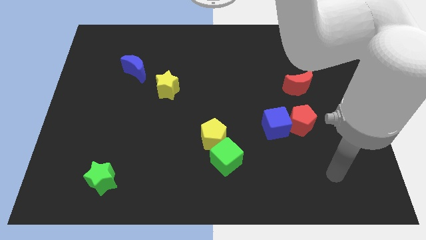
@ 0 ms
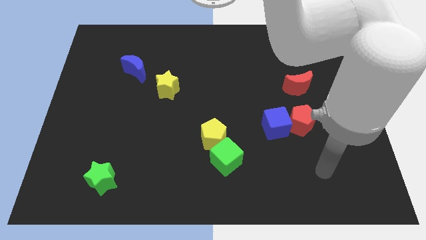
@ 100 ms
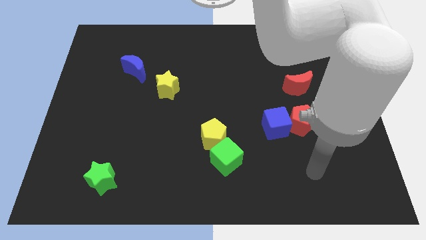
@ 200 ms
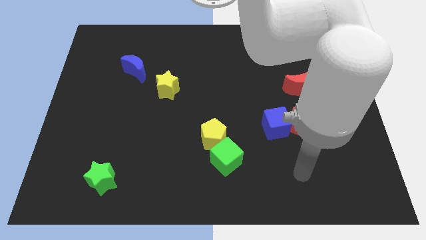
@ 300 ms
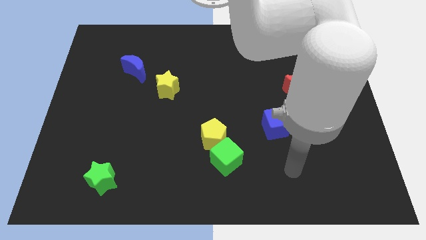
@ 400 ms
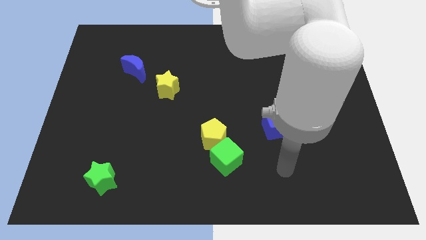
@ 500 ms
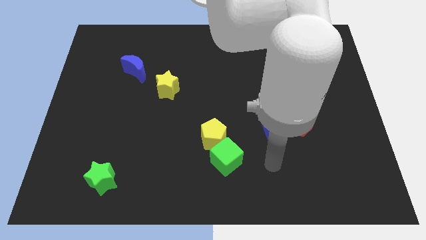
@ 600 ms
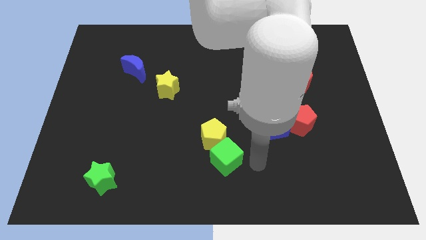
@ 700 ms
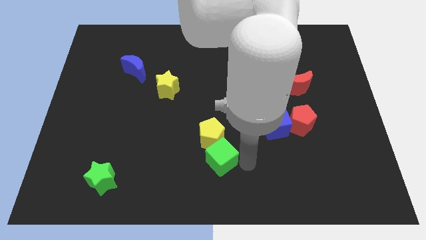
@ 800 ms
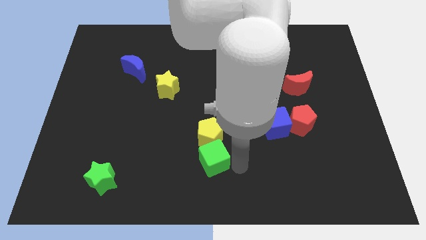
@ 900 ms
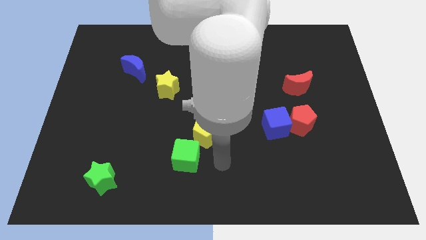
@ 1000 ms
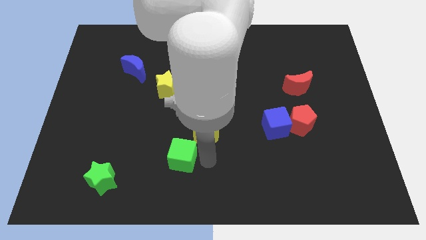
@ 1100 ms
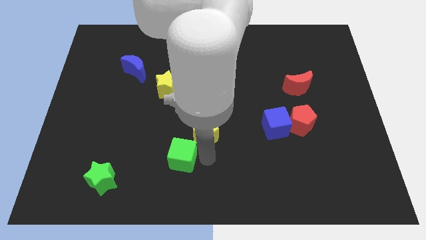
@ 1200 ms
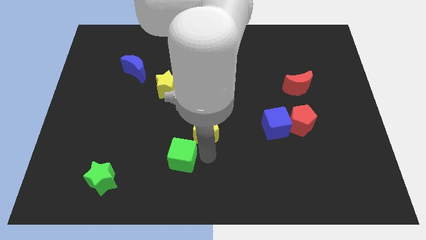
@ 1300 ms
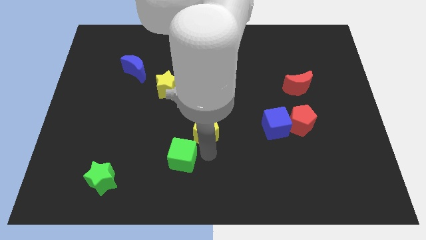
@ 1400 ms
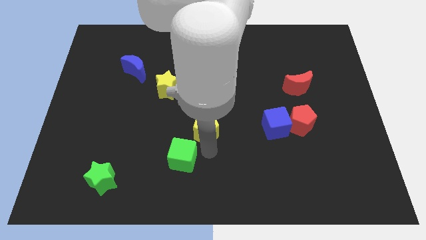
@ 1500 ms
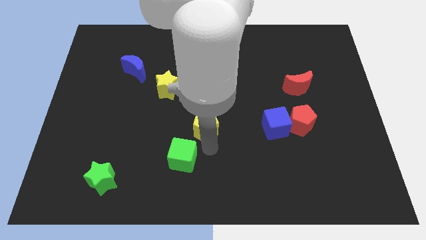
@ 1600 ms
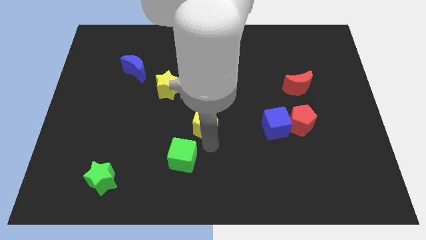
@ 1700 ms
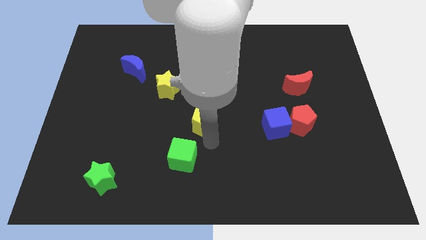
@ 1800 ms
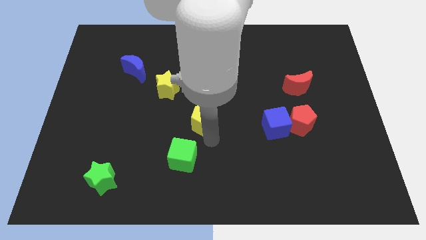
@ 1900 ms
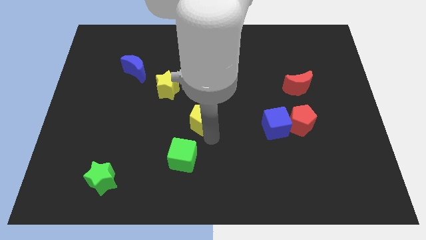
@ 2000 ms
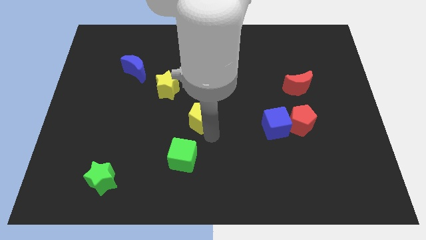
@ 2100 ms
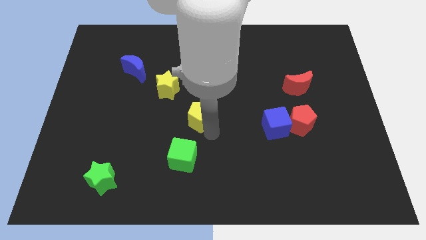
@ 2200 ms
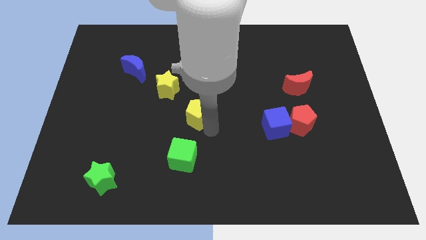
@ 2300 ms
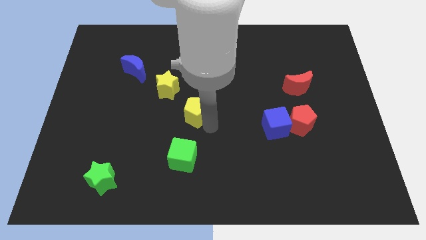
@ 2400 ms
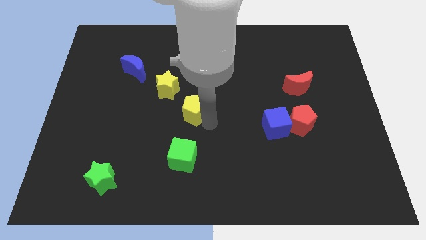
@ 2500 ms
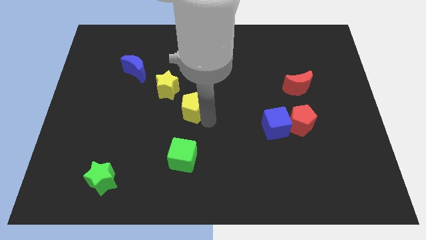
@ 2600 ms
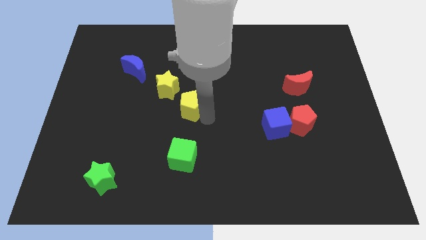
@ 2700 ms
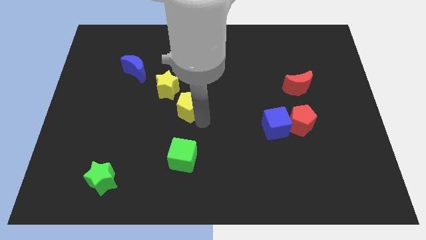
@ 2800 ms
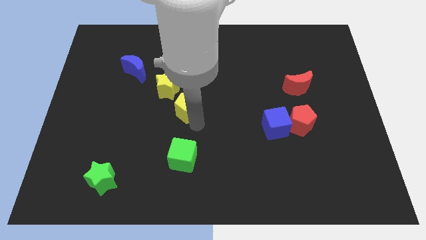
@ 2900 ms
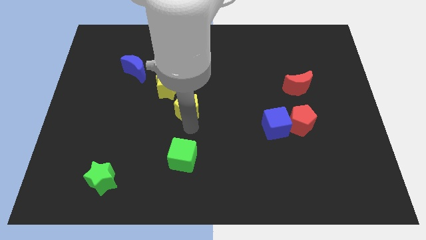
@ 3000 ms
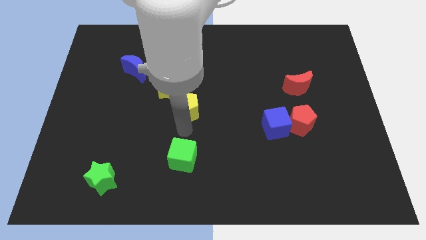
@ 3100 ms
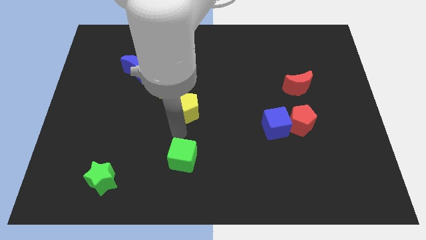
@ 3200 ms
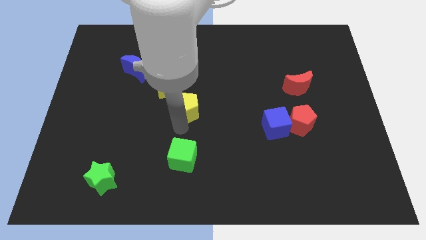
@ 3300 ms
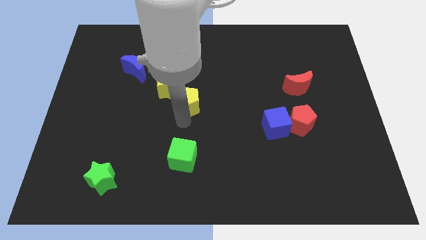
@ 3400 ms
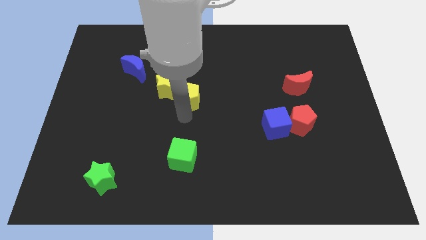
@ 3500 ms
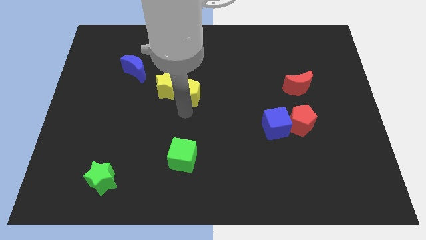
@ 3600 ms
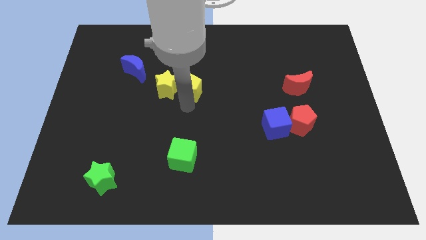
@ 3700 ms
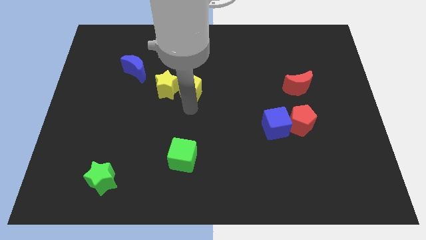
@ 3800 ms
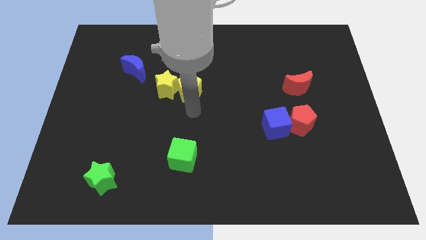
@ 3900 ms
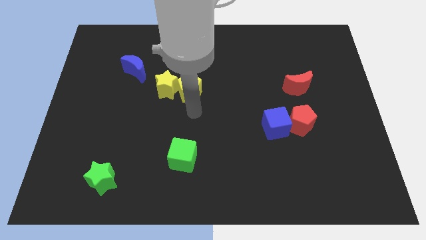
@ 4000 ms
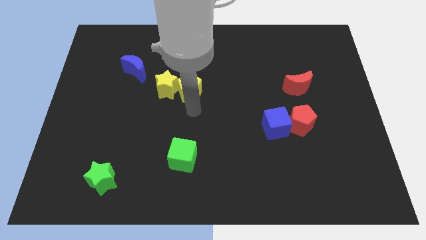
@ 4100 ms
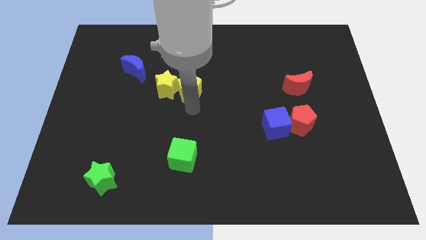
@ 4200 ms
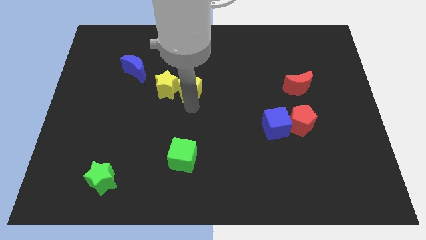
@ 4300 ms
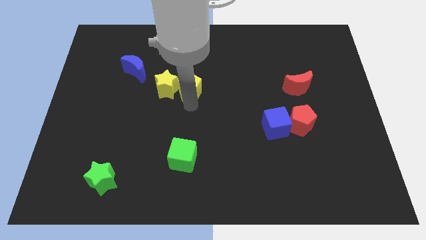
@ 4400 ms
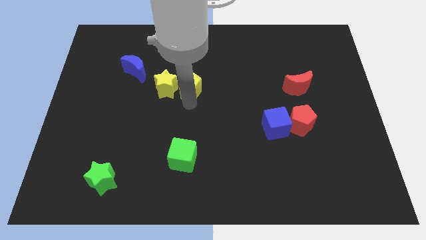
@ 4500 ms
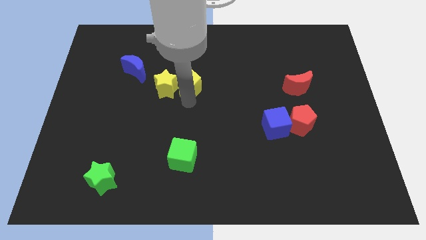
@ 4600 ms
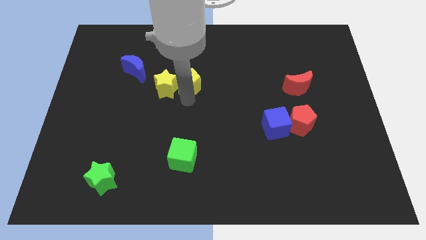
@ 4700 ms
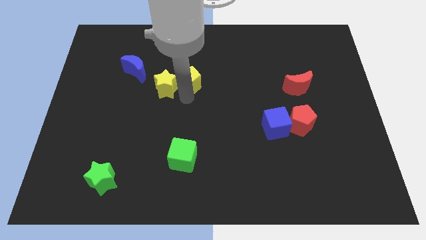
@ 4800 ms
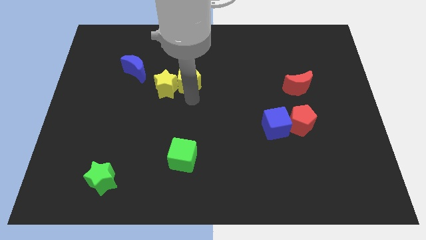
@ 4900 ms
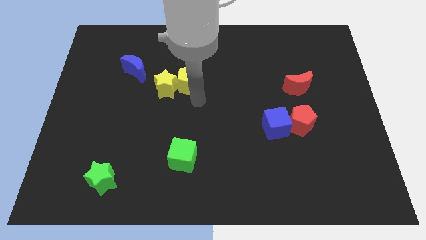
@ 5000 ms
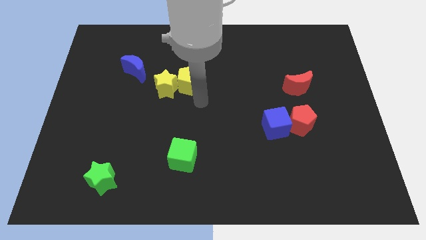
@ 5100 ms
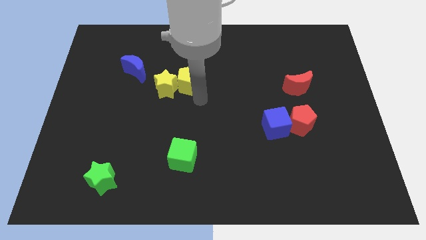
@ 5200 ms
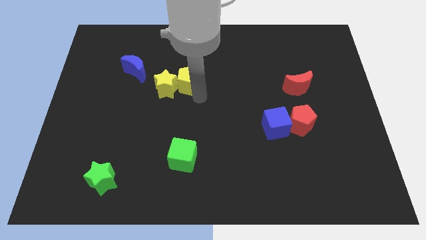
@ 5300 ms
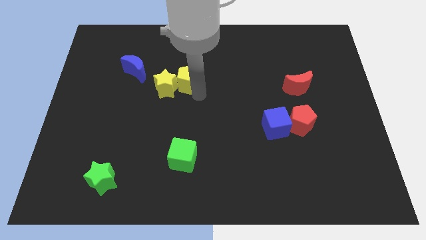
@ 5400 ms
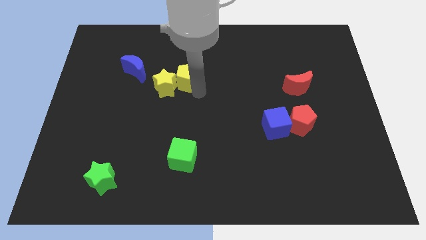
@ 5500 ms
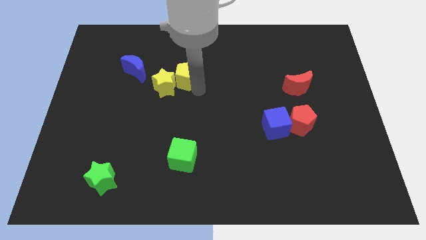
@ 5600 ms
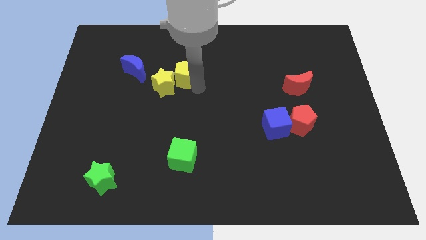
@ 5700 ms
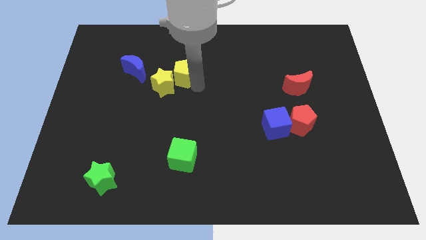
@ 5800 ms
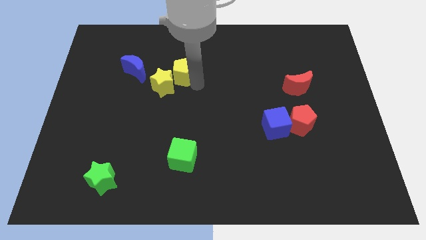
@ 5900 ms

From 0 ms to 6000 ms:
push the yellow pentagon to the top of the yellow star
